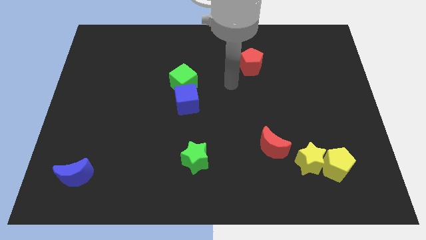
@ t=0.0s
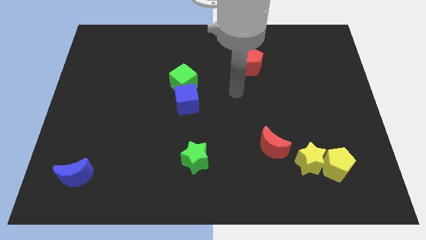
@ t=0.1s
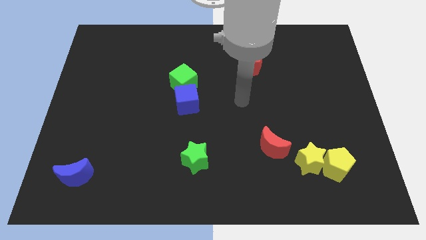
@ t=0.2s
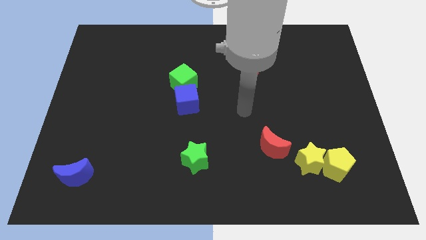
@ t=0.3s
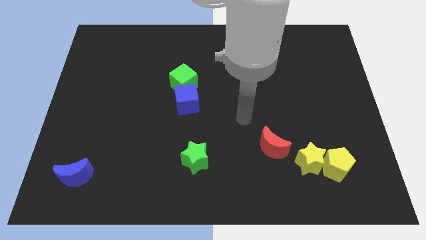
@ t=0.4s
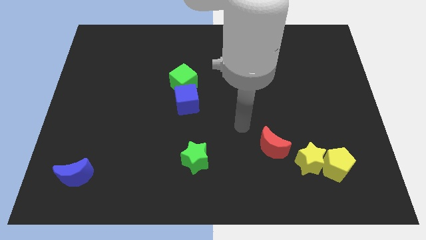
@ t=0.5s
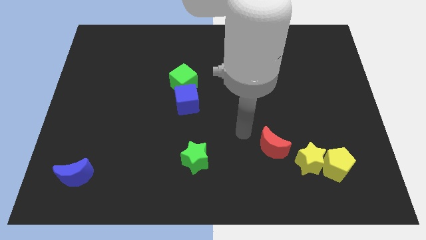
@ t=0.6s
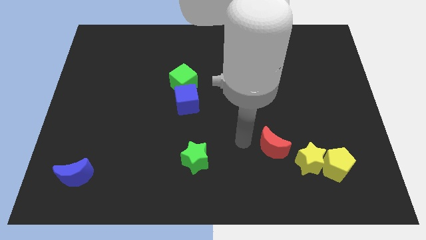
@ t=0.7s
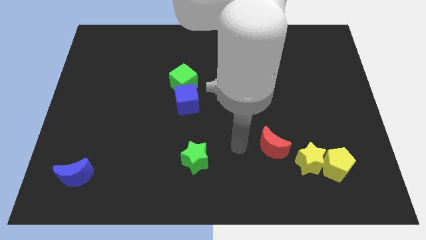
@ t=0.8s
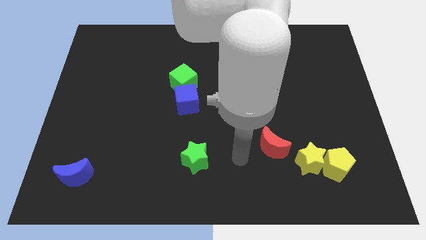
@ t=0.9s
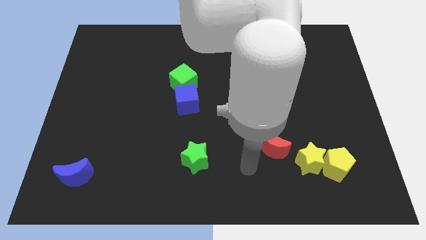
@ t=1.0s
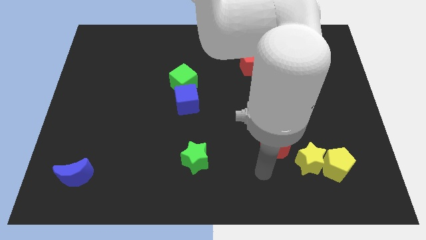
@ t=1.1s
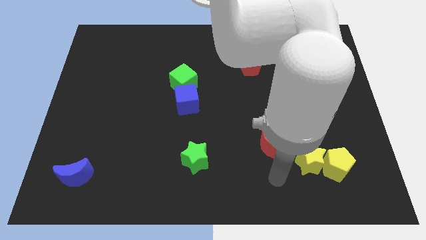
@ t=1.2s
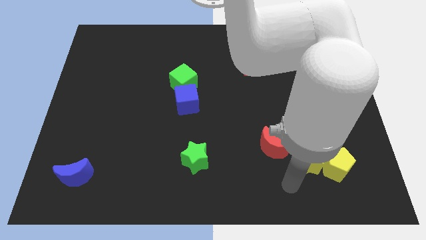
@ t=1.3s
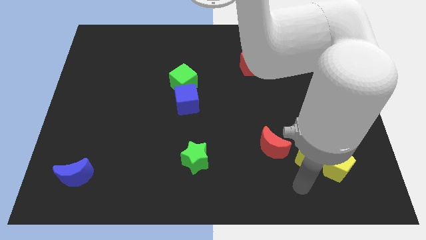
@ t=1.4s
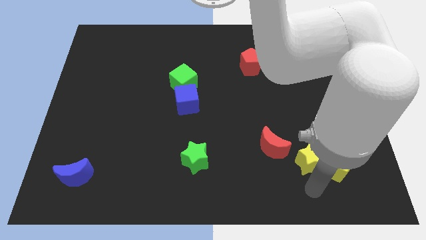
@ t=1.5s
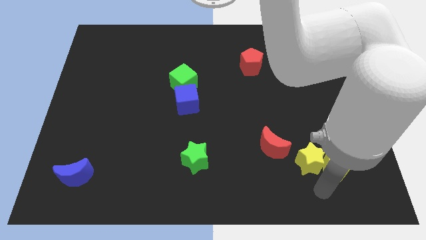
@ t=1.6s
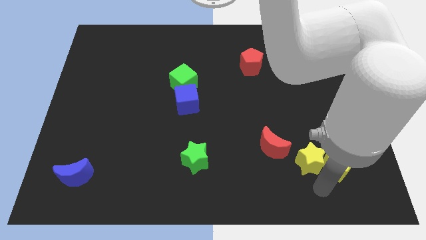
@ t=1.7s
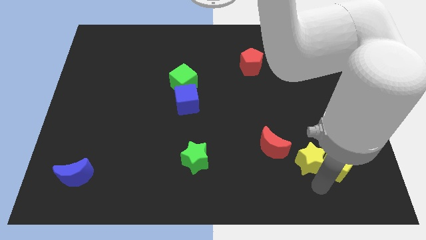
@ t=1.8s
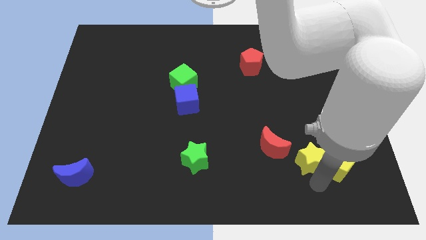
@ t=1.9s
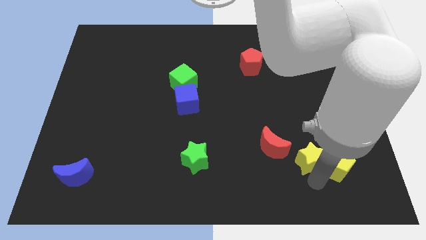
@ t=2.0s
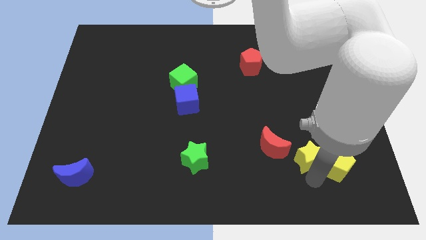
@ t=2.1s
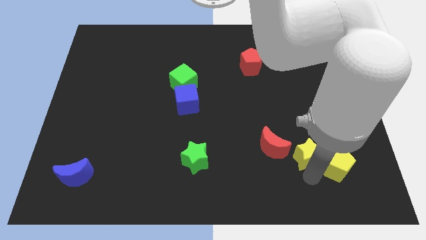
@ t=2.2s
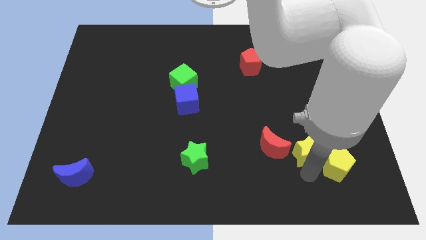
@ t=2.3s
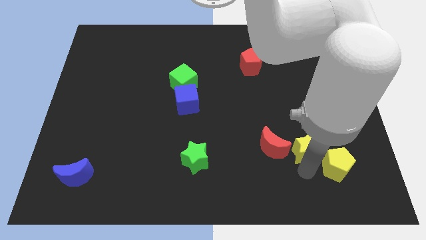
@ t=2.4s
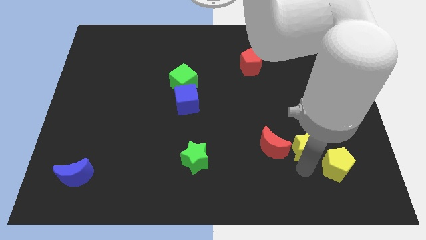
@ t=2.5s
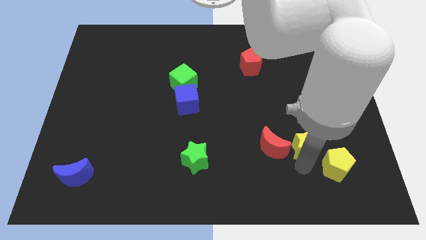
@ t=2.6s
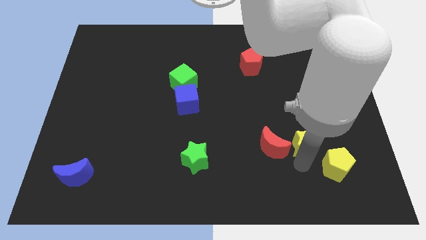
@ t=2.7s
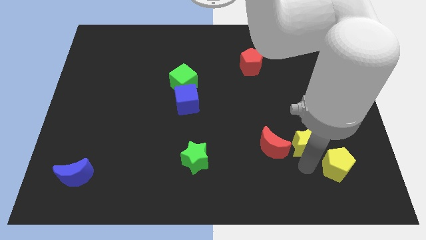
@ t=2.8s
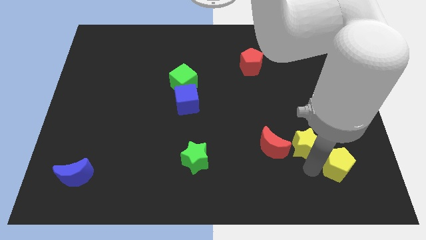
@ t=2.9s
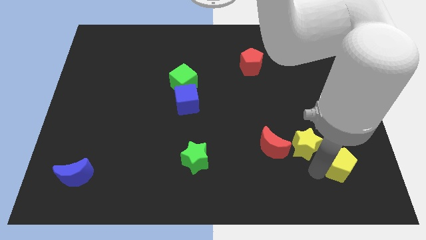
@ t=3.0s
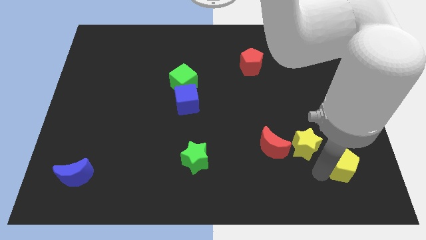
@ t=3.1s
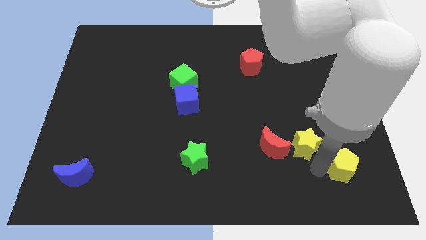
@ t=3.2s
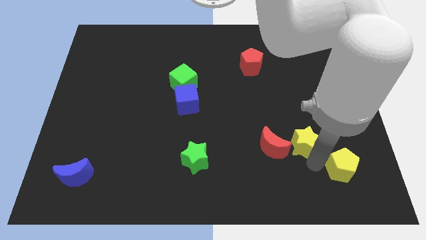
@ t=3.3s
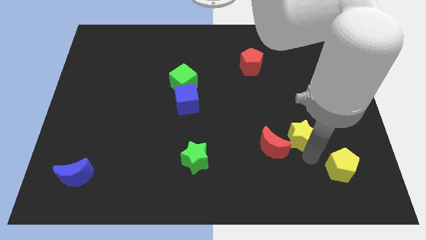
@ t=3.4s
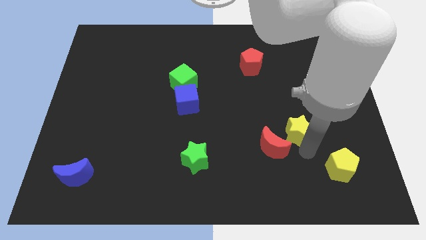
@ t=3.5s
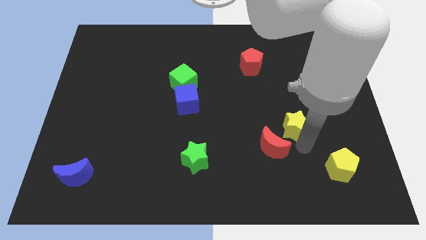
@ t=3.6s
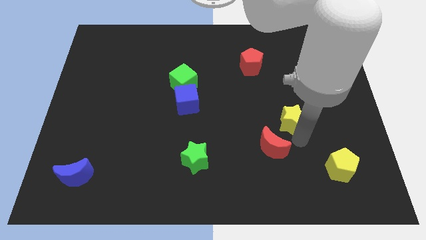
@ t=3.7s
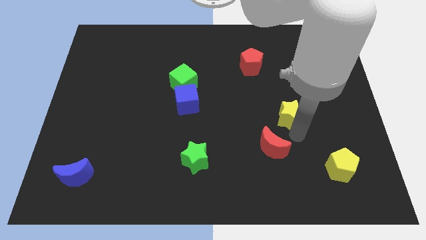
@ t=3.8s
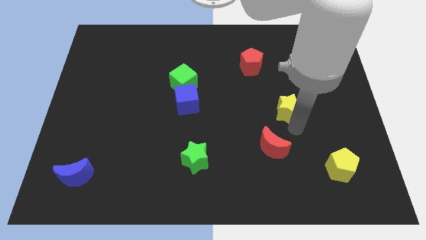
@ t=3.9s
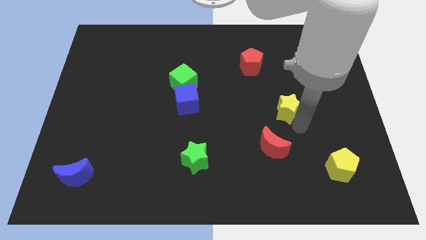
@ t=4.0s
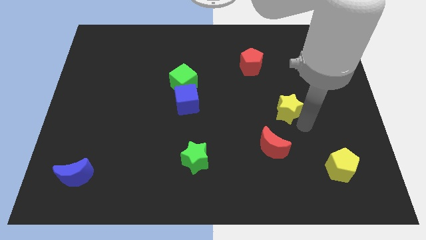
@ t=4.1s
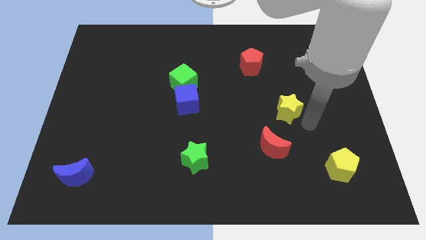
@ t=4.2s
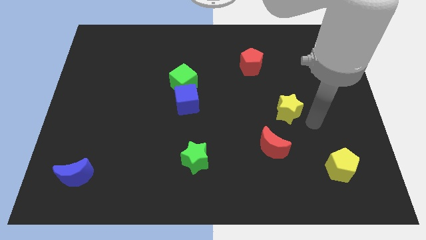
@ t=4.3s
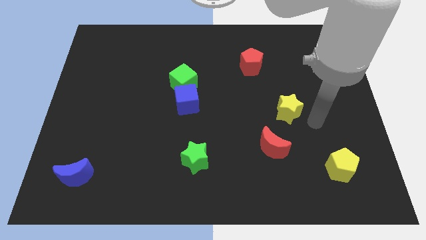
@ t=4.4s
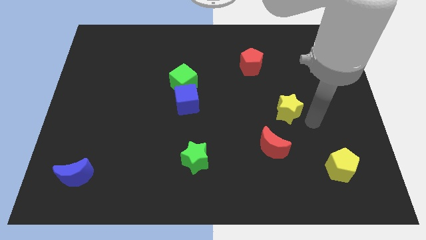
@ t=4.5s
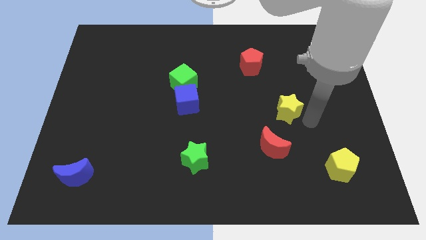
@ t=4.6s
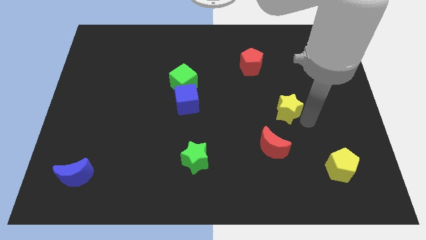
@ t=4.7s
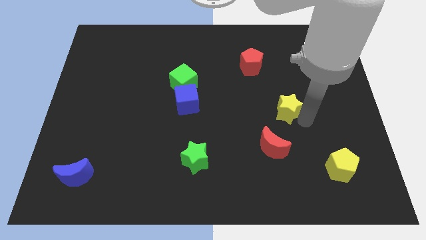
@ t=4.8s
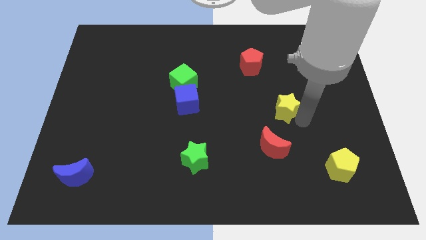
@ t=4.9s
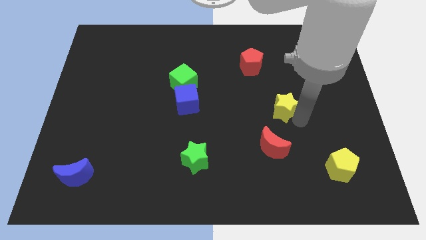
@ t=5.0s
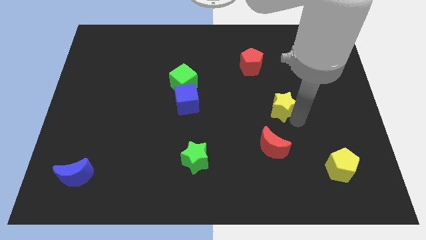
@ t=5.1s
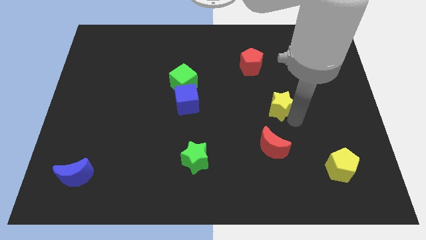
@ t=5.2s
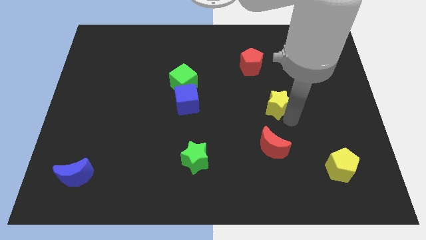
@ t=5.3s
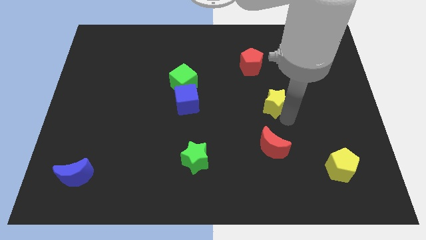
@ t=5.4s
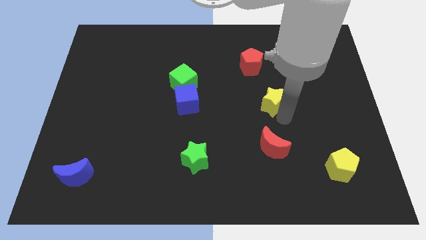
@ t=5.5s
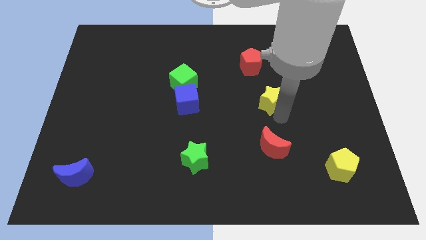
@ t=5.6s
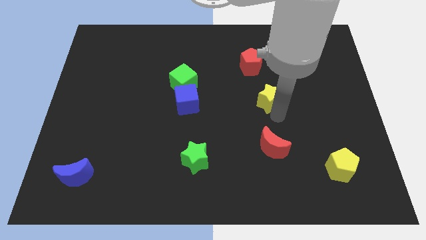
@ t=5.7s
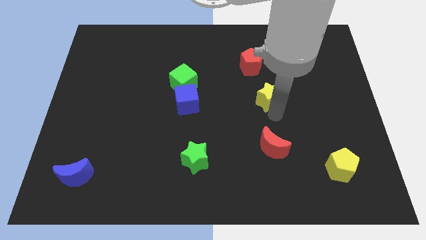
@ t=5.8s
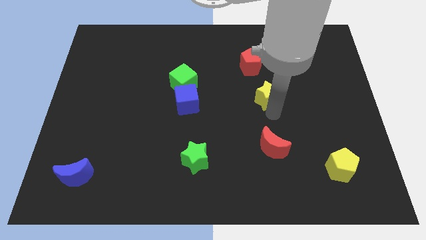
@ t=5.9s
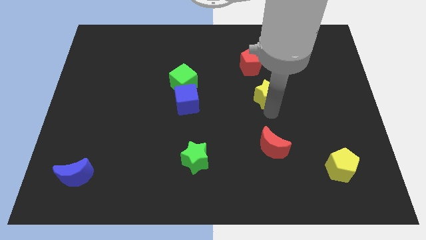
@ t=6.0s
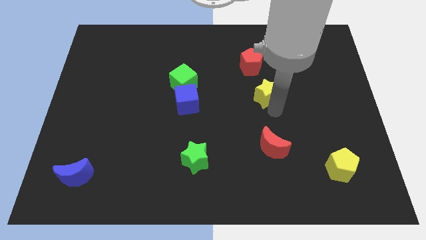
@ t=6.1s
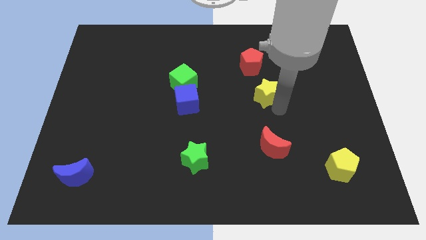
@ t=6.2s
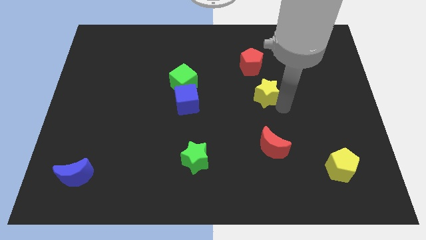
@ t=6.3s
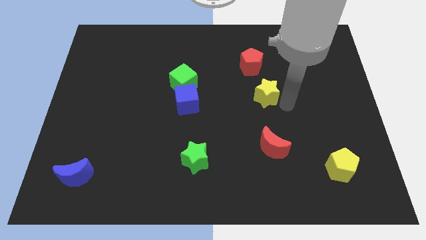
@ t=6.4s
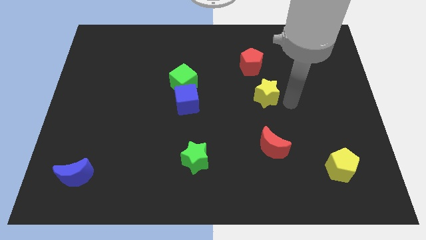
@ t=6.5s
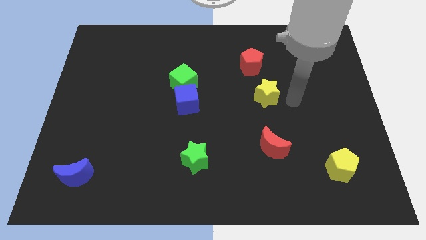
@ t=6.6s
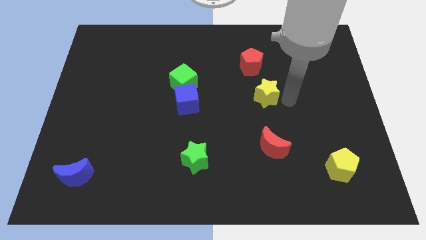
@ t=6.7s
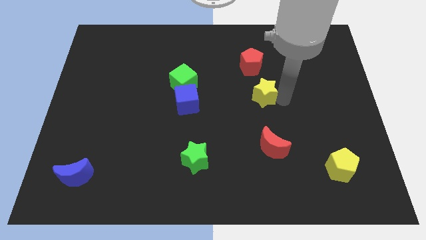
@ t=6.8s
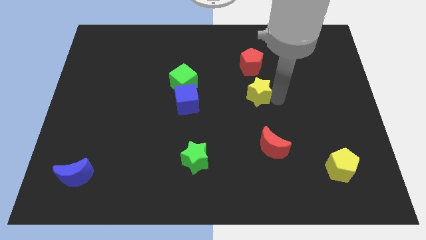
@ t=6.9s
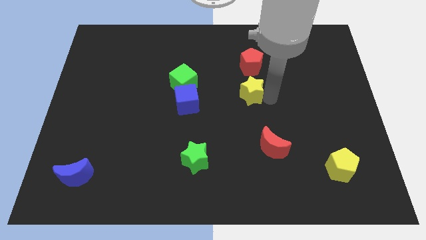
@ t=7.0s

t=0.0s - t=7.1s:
push the yellow star diagonally up and to the left

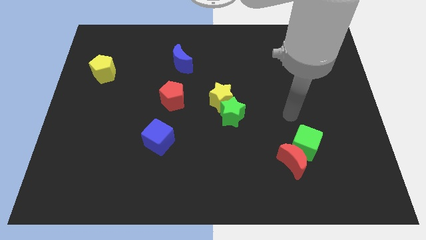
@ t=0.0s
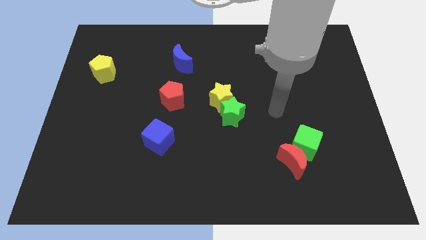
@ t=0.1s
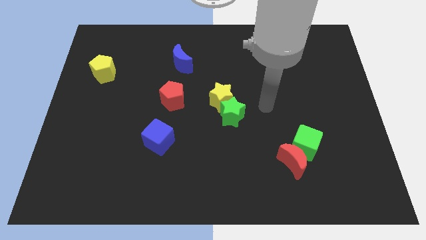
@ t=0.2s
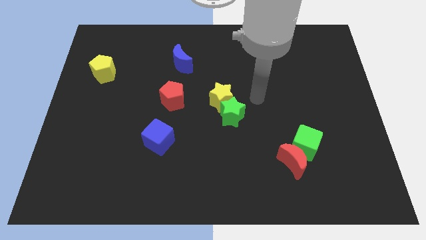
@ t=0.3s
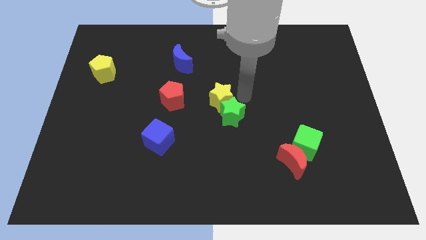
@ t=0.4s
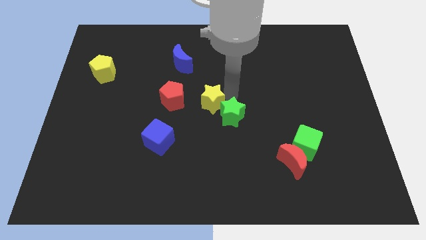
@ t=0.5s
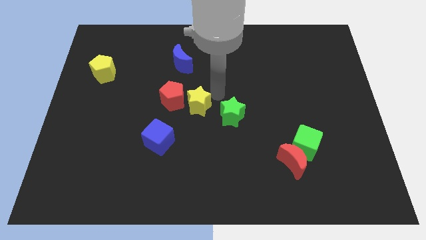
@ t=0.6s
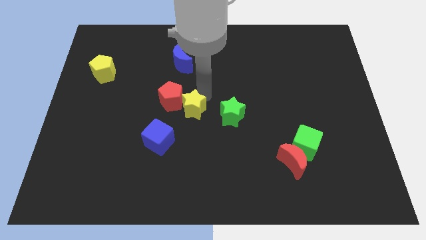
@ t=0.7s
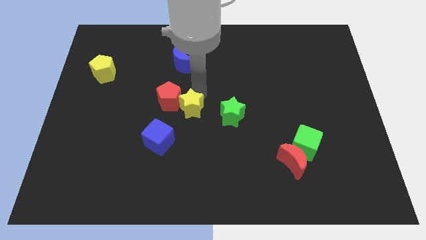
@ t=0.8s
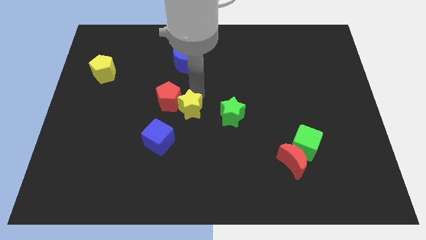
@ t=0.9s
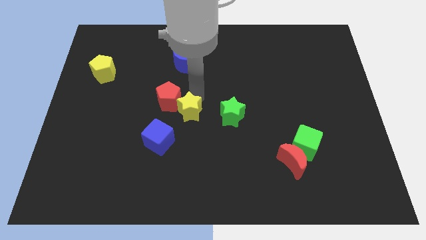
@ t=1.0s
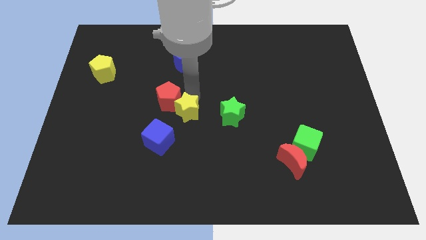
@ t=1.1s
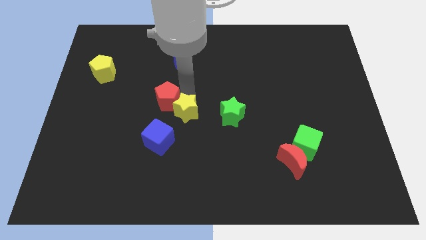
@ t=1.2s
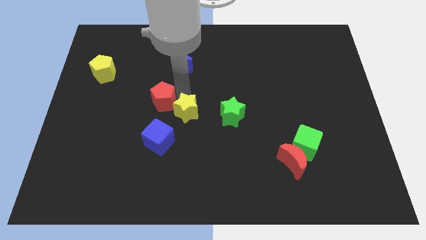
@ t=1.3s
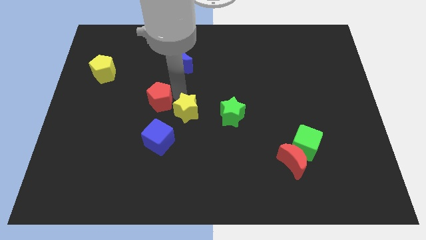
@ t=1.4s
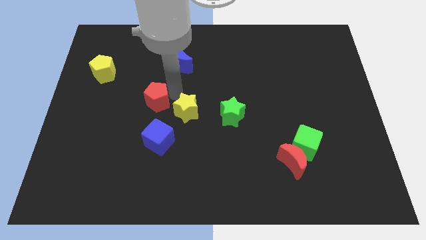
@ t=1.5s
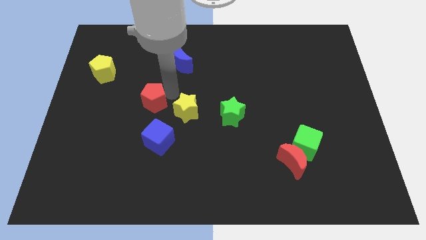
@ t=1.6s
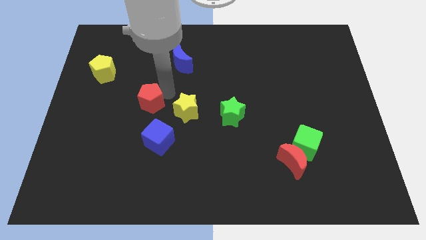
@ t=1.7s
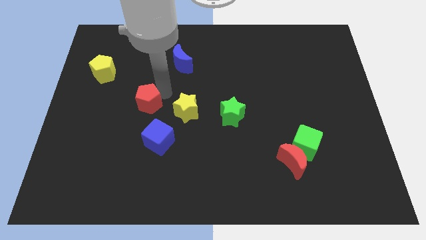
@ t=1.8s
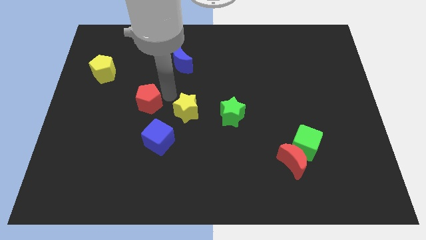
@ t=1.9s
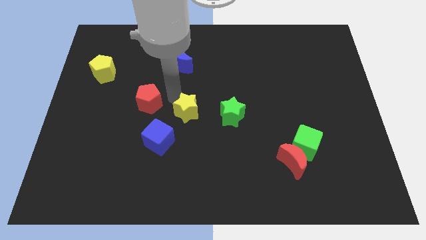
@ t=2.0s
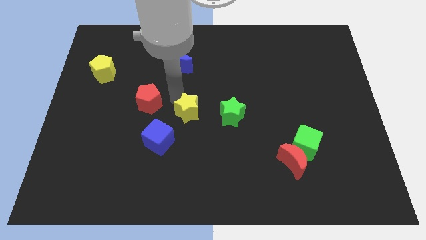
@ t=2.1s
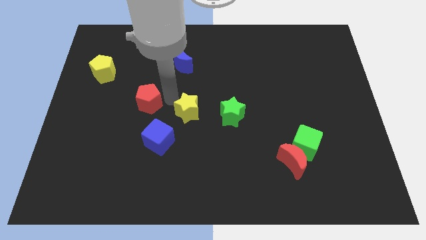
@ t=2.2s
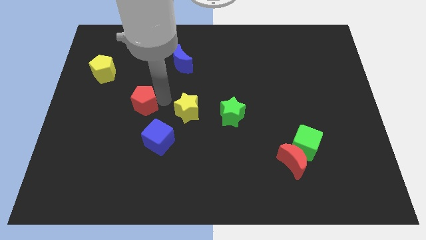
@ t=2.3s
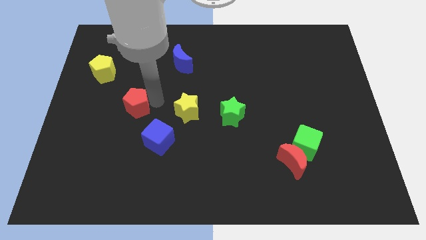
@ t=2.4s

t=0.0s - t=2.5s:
slightly push the red pentagon left
